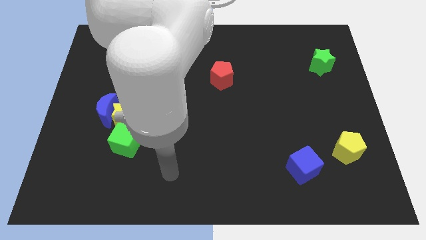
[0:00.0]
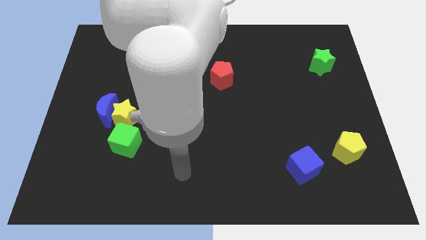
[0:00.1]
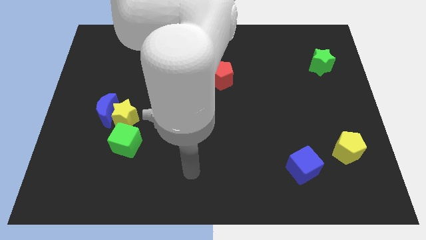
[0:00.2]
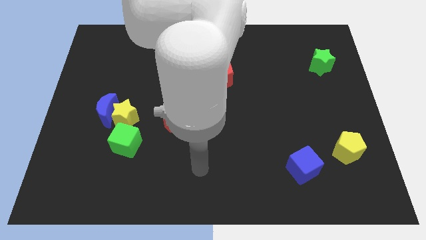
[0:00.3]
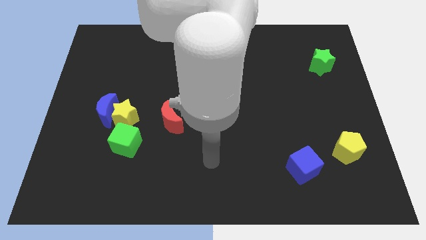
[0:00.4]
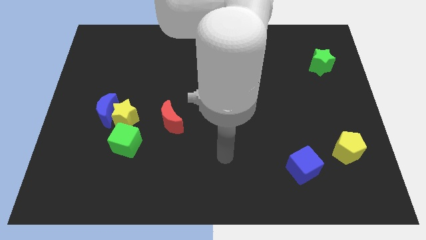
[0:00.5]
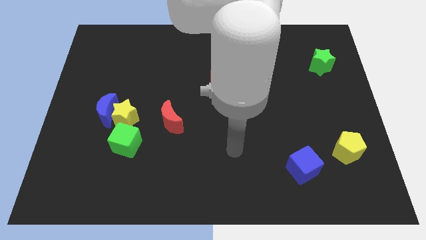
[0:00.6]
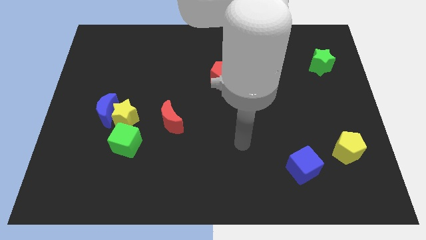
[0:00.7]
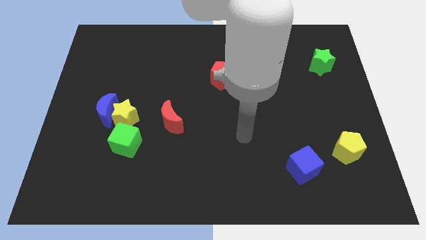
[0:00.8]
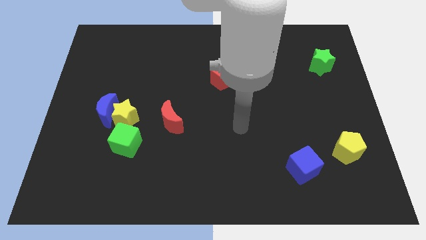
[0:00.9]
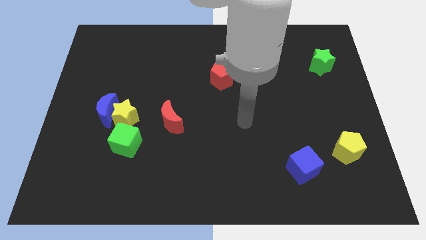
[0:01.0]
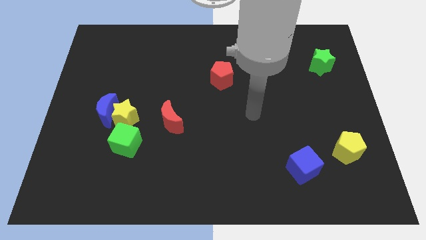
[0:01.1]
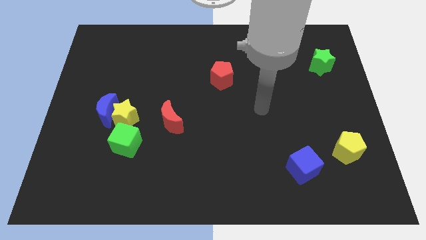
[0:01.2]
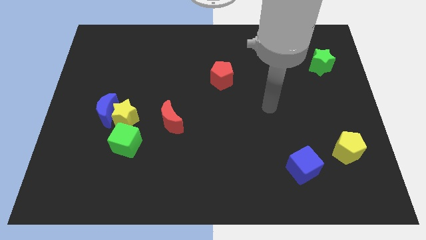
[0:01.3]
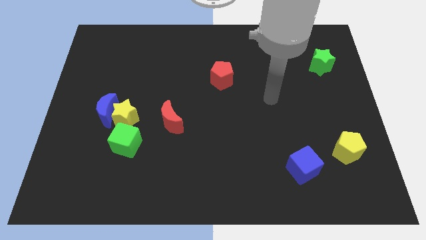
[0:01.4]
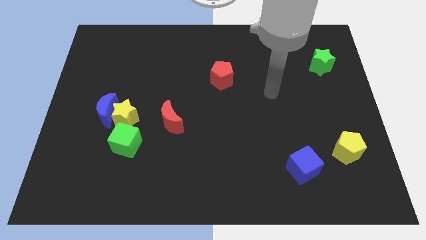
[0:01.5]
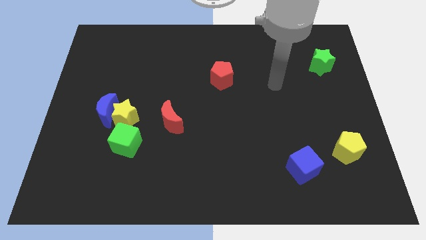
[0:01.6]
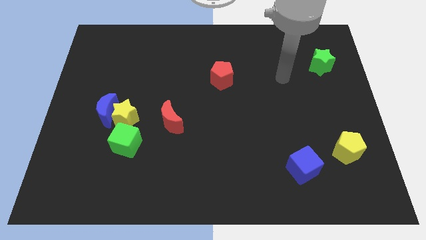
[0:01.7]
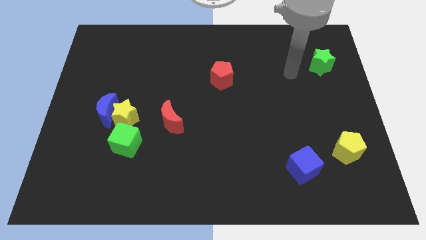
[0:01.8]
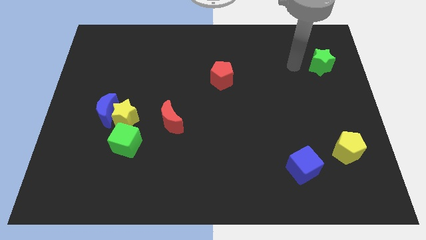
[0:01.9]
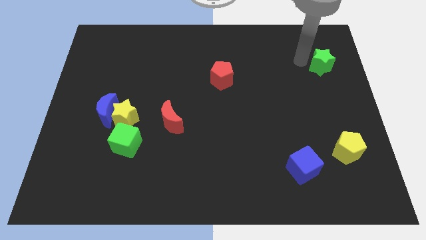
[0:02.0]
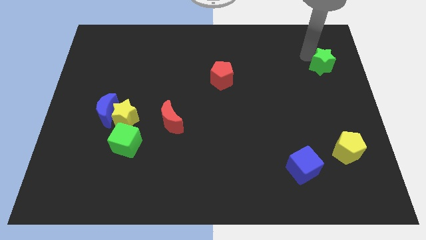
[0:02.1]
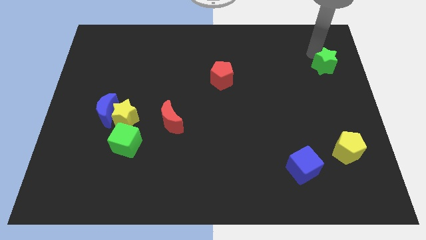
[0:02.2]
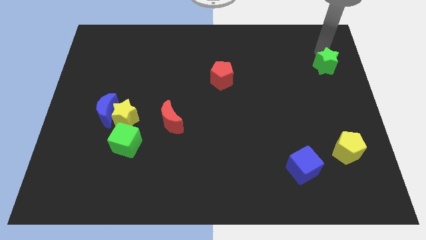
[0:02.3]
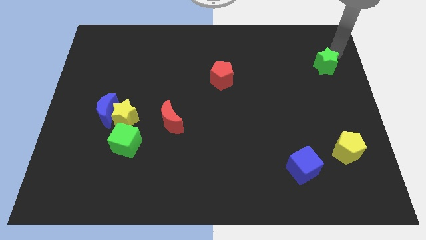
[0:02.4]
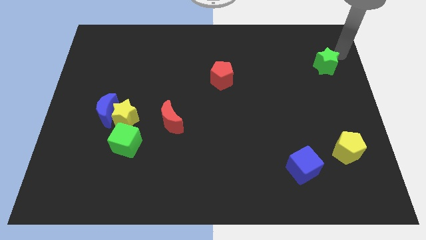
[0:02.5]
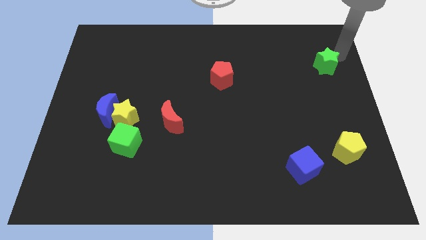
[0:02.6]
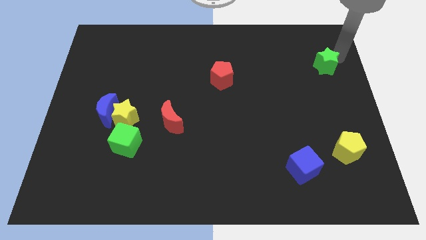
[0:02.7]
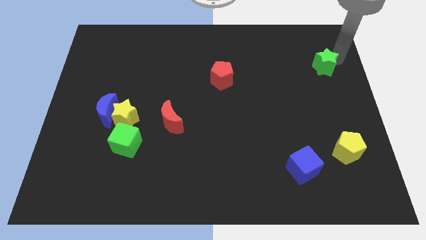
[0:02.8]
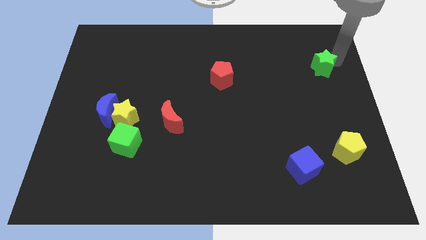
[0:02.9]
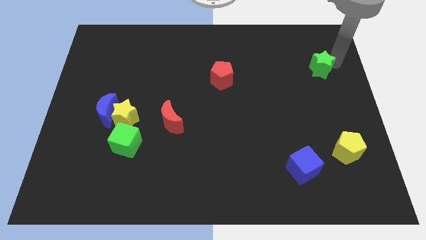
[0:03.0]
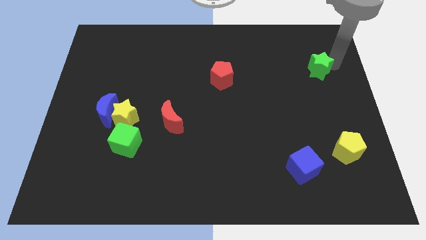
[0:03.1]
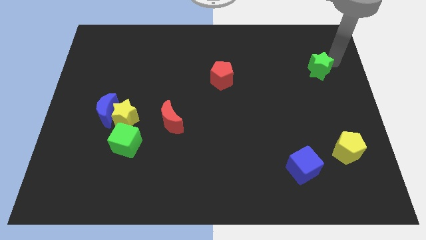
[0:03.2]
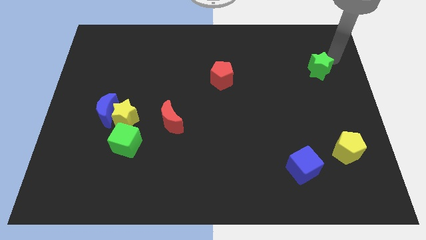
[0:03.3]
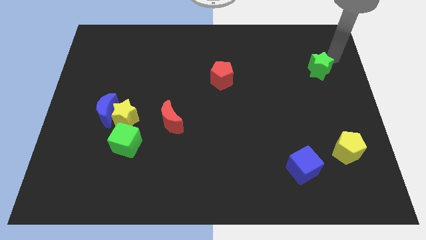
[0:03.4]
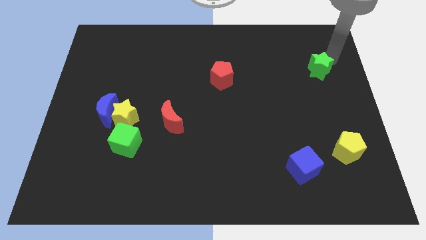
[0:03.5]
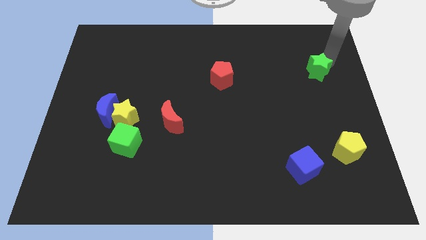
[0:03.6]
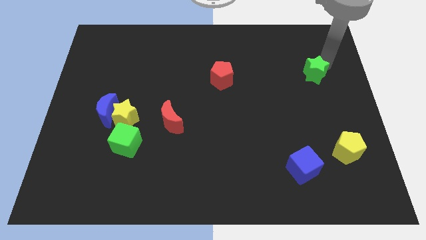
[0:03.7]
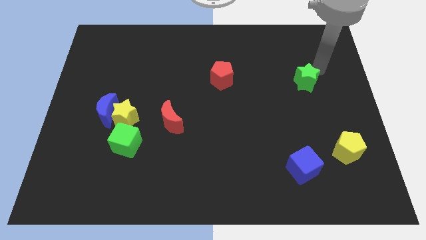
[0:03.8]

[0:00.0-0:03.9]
slightly slide the green star downwards and left

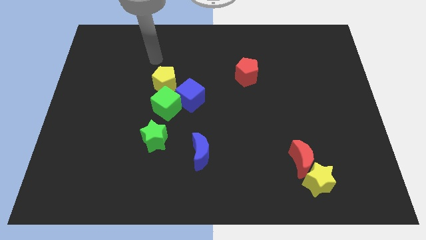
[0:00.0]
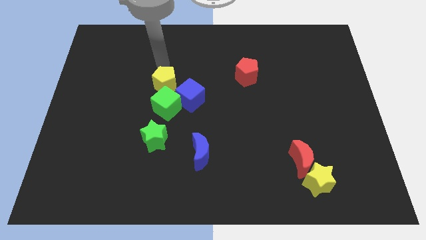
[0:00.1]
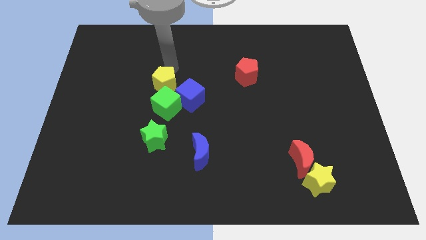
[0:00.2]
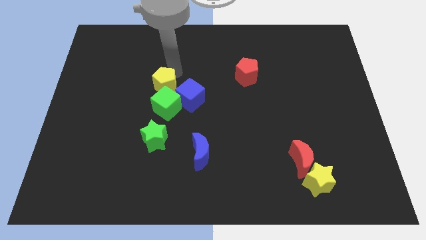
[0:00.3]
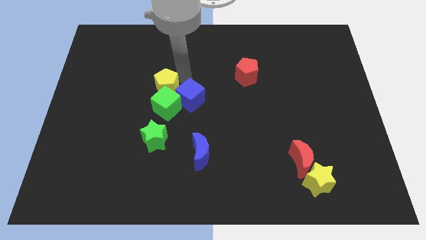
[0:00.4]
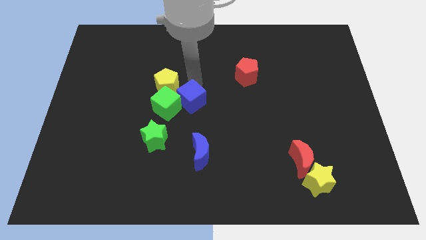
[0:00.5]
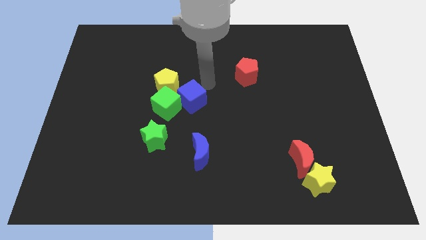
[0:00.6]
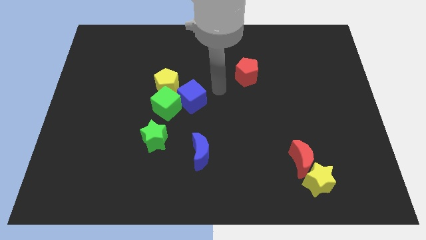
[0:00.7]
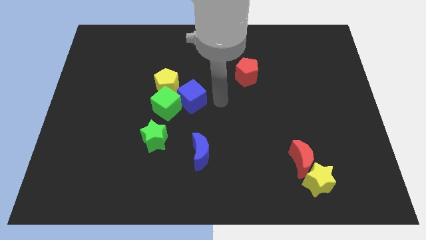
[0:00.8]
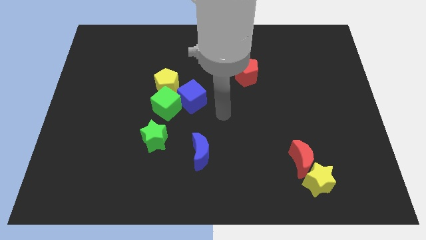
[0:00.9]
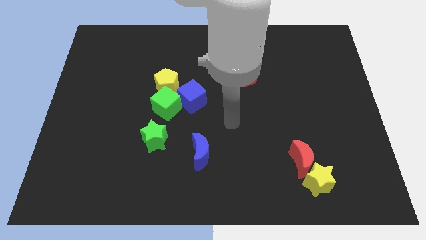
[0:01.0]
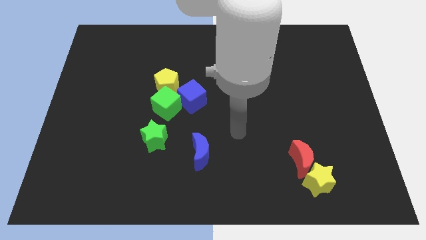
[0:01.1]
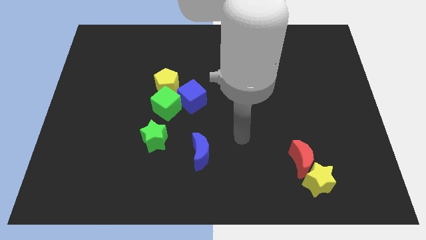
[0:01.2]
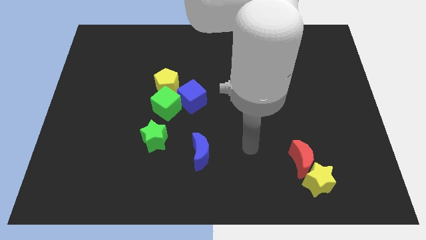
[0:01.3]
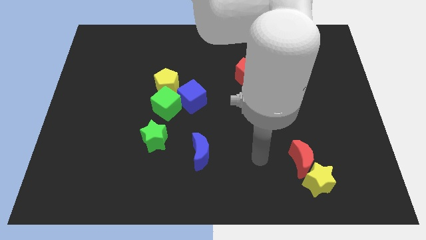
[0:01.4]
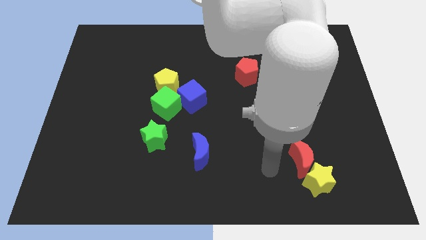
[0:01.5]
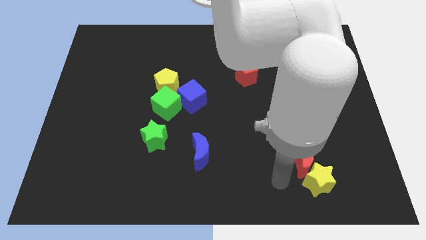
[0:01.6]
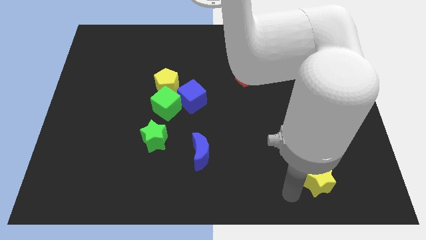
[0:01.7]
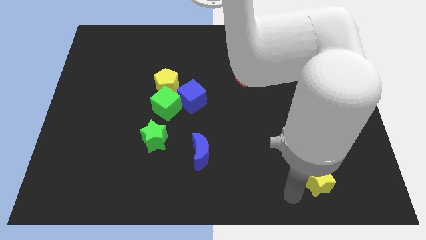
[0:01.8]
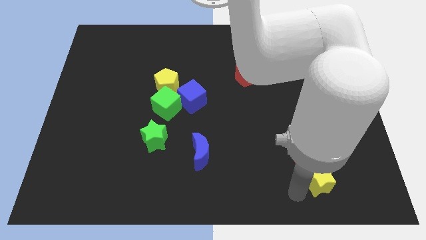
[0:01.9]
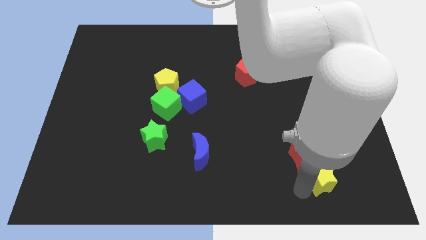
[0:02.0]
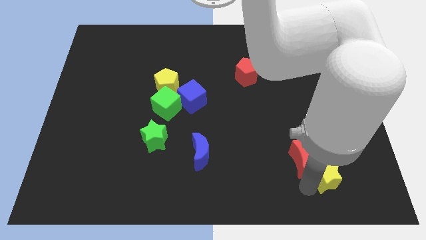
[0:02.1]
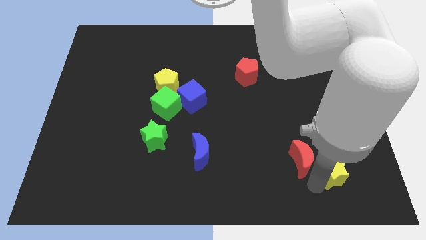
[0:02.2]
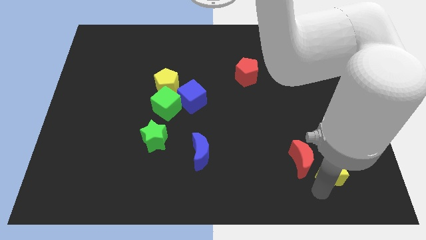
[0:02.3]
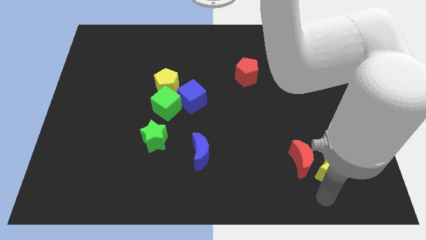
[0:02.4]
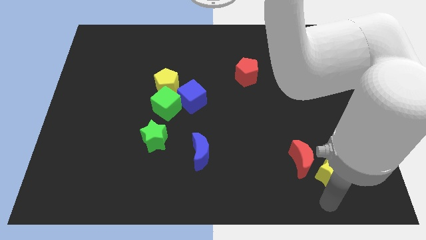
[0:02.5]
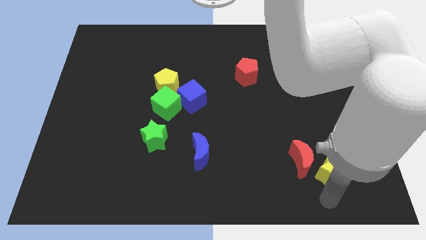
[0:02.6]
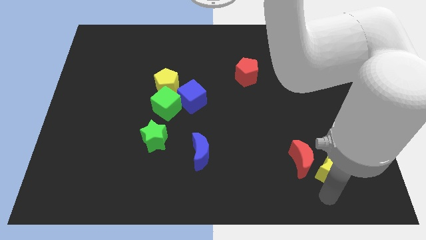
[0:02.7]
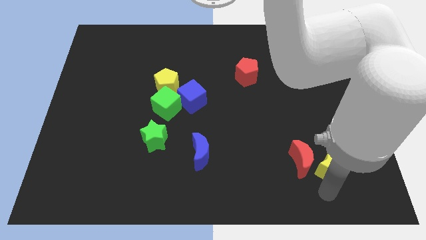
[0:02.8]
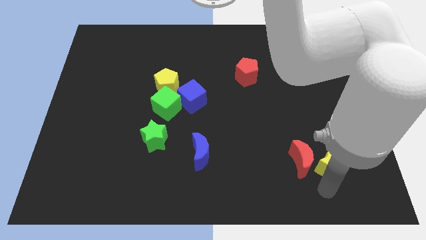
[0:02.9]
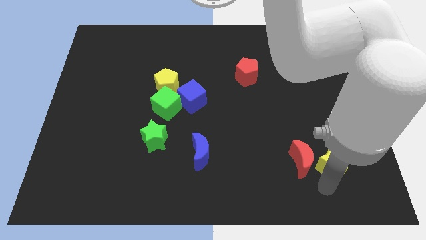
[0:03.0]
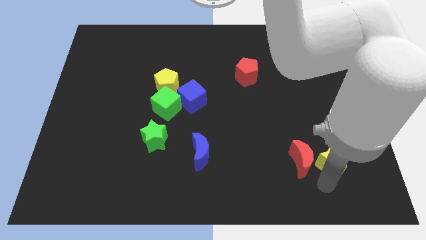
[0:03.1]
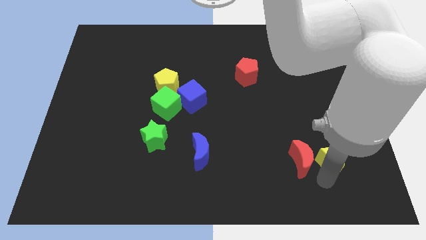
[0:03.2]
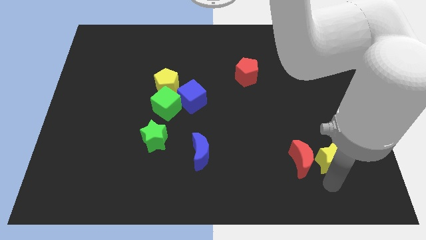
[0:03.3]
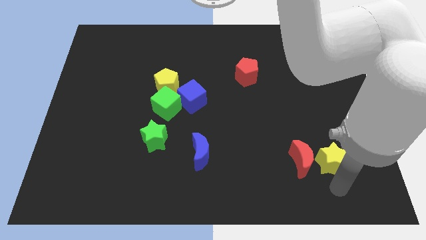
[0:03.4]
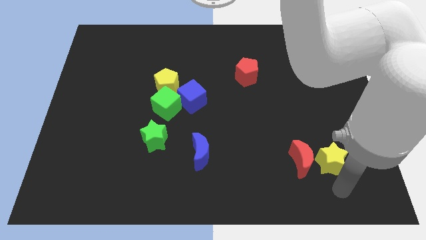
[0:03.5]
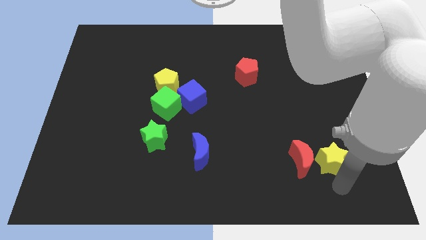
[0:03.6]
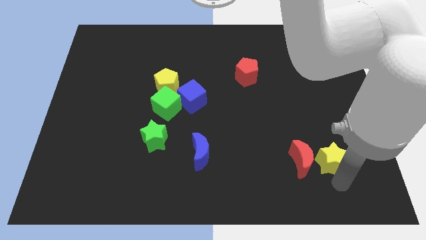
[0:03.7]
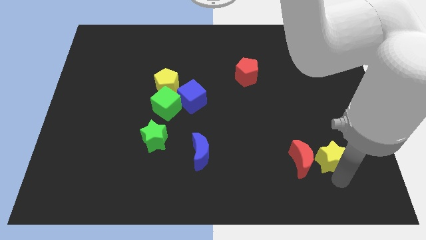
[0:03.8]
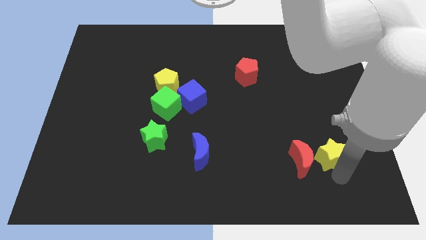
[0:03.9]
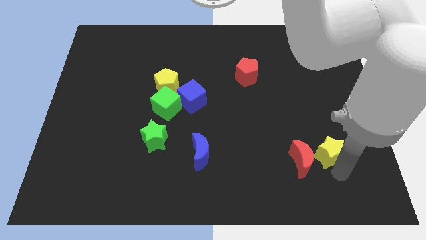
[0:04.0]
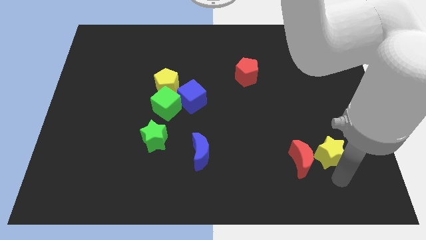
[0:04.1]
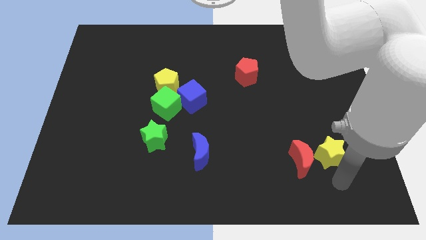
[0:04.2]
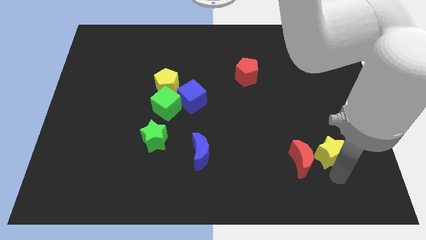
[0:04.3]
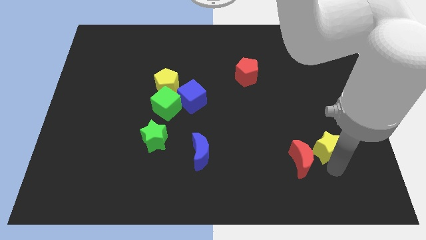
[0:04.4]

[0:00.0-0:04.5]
push the yellow star slightly up
